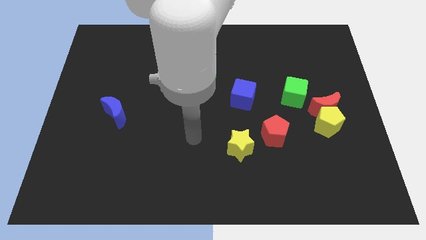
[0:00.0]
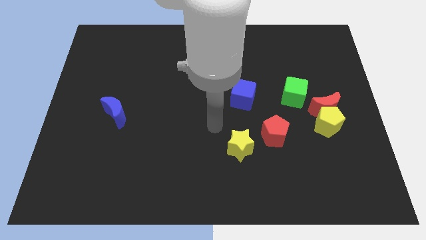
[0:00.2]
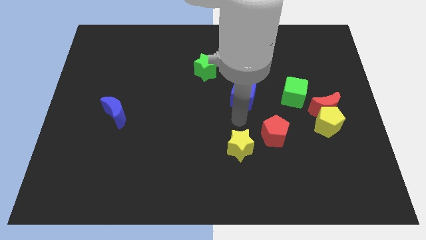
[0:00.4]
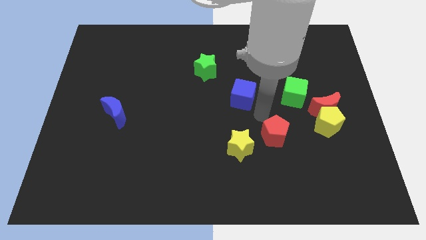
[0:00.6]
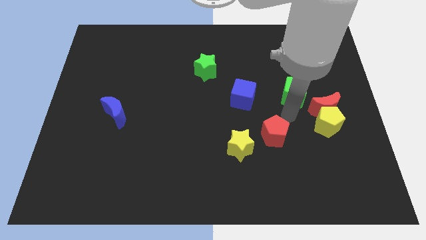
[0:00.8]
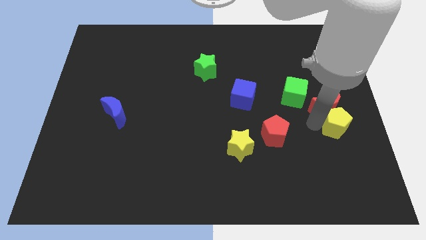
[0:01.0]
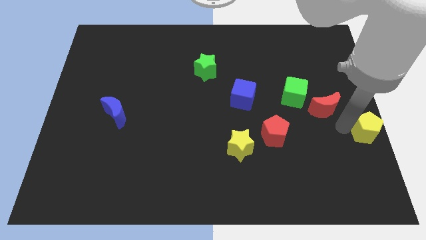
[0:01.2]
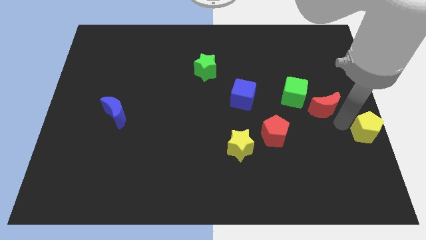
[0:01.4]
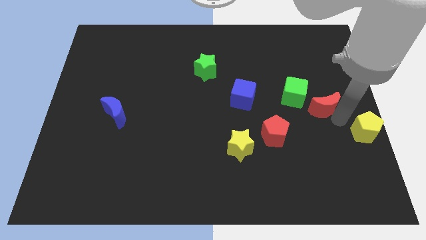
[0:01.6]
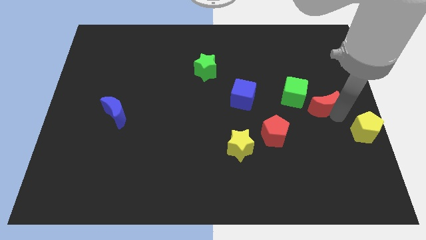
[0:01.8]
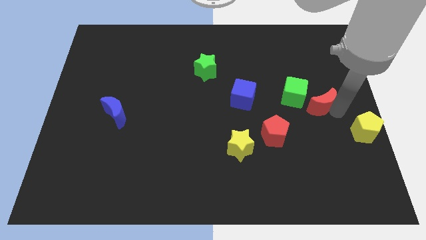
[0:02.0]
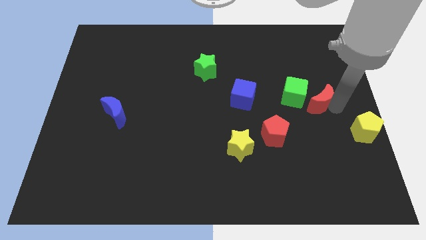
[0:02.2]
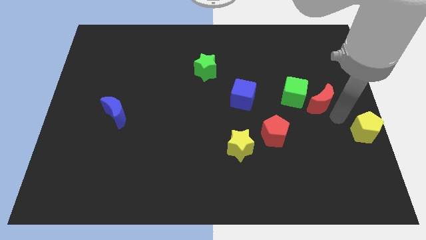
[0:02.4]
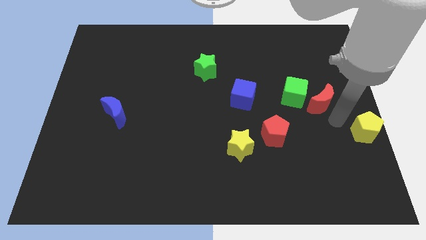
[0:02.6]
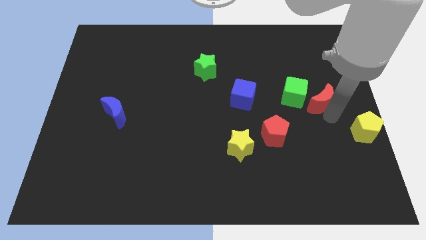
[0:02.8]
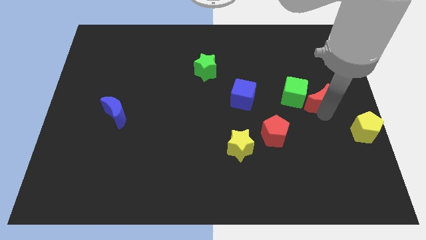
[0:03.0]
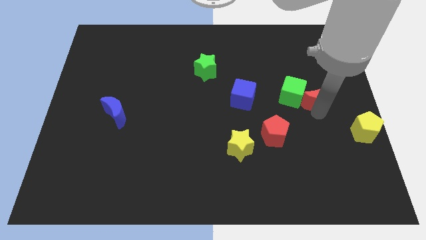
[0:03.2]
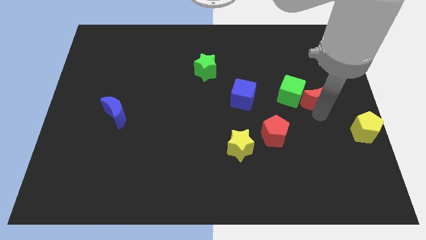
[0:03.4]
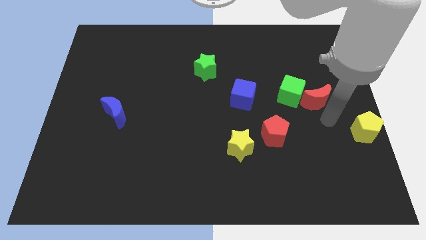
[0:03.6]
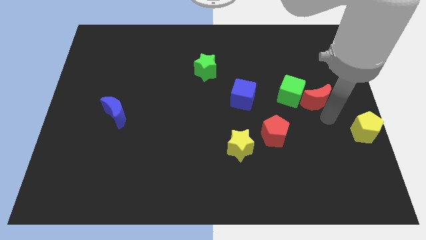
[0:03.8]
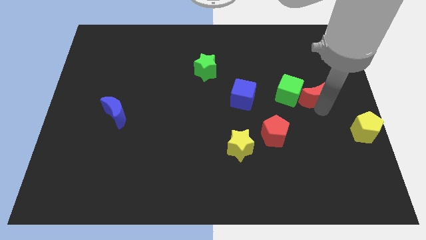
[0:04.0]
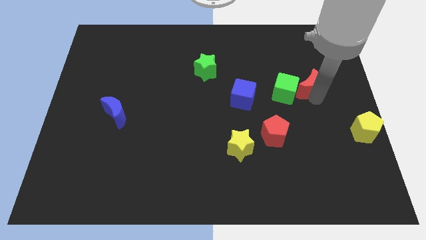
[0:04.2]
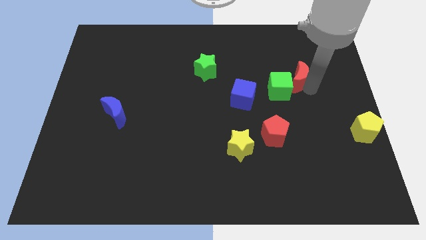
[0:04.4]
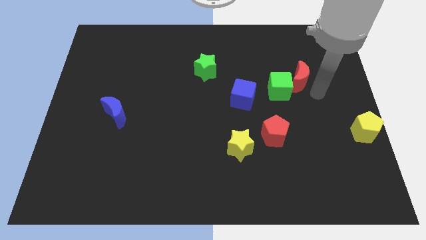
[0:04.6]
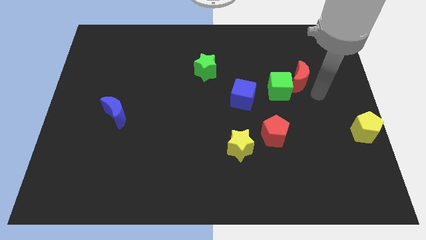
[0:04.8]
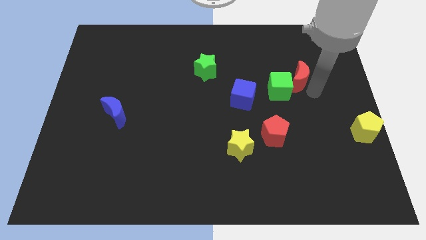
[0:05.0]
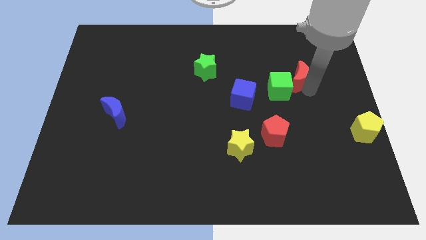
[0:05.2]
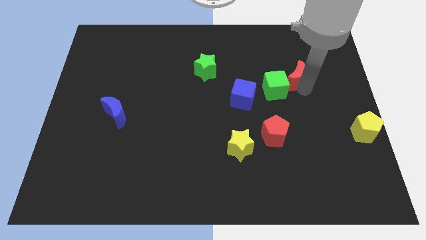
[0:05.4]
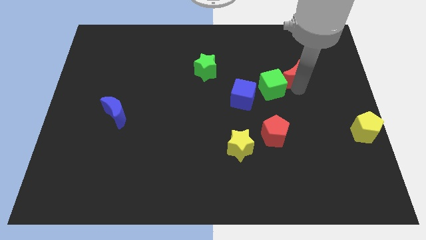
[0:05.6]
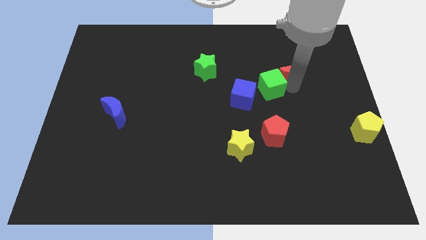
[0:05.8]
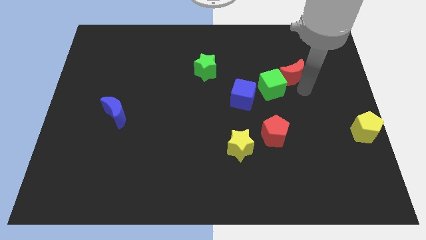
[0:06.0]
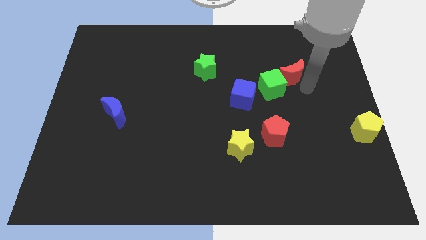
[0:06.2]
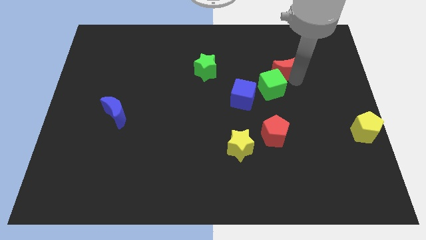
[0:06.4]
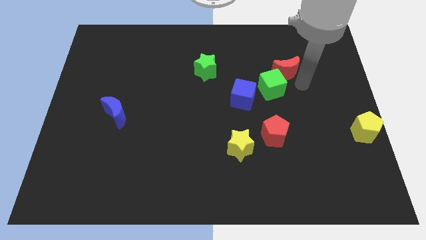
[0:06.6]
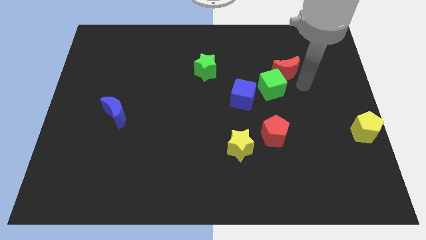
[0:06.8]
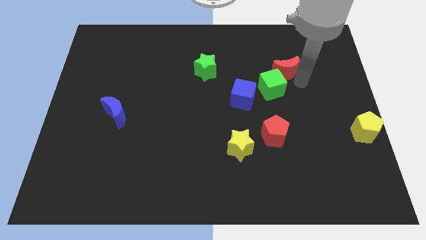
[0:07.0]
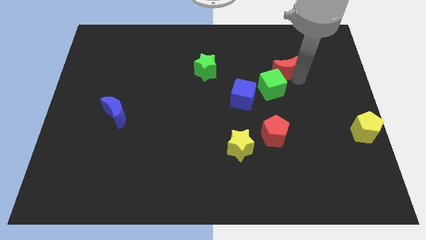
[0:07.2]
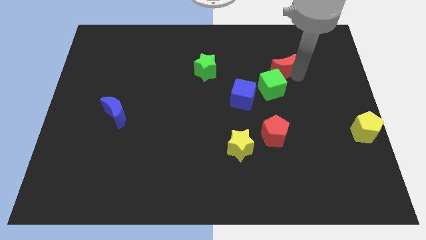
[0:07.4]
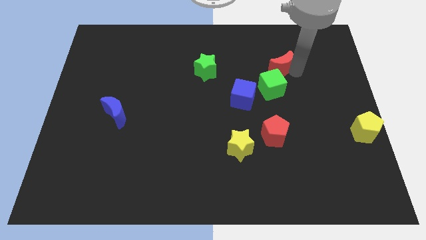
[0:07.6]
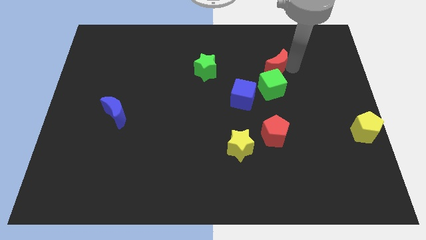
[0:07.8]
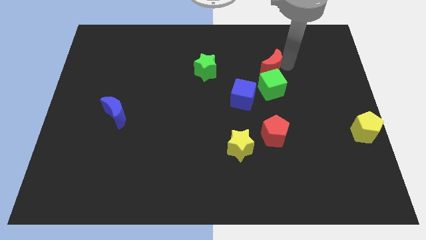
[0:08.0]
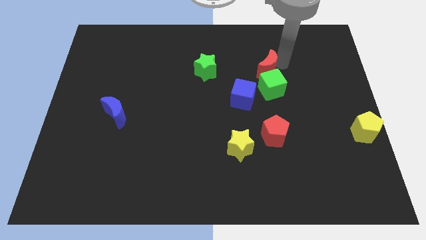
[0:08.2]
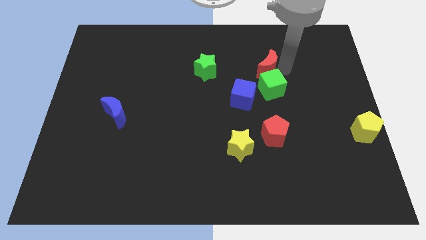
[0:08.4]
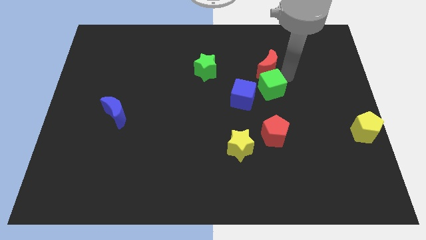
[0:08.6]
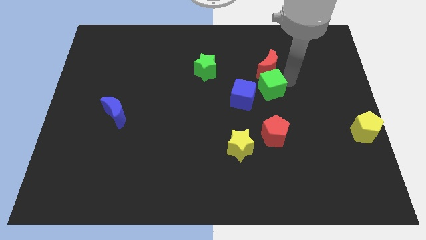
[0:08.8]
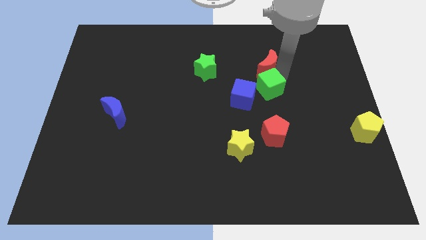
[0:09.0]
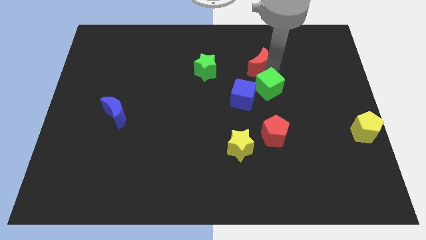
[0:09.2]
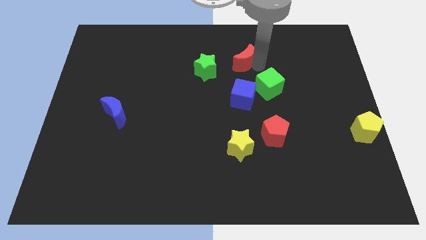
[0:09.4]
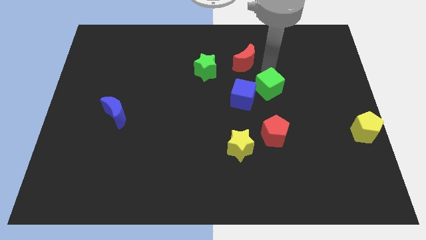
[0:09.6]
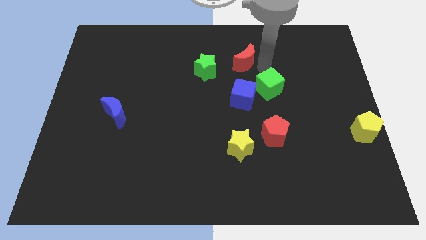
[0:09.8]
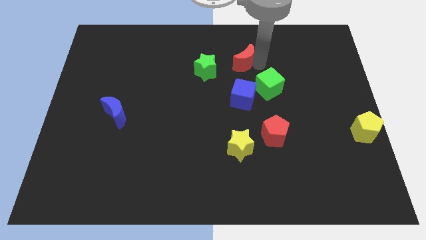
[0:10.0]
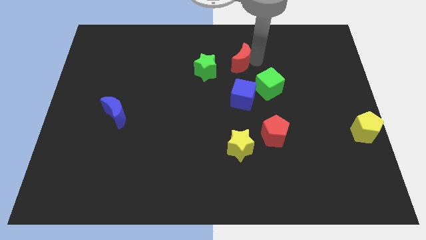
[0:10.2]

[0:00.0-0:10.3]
slide the red moon diagonally up and to the right of the green star

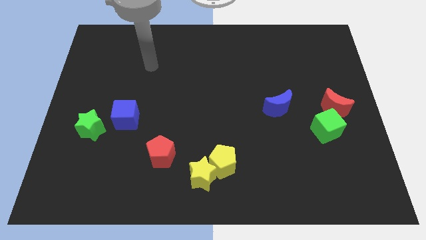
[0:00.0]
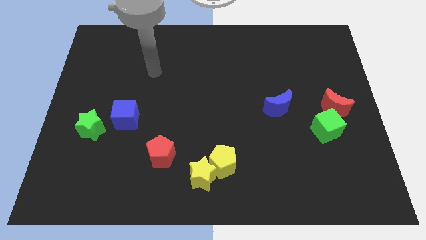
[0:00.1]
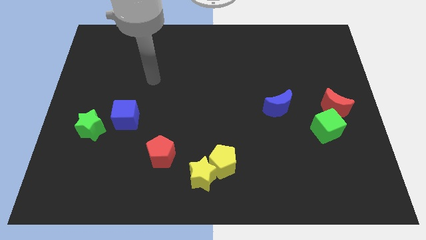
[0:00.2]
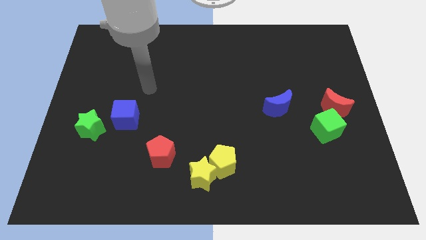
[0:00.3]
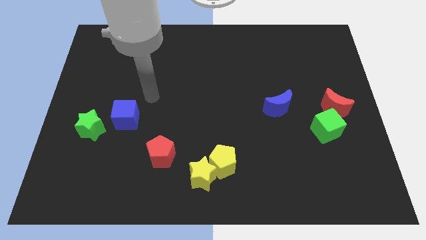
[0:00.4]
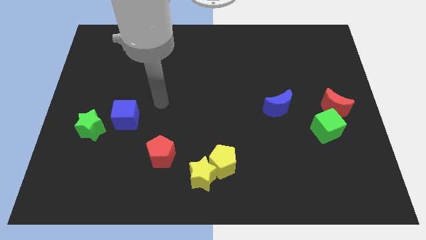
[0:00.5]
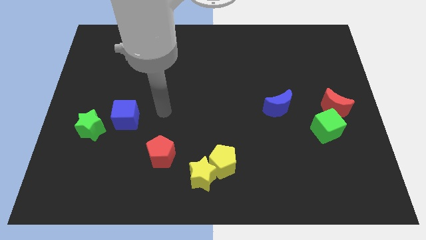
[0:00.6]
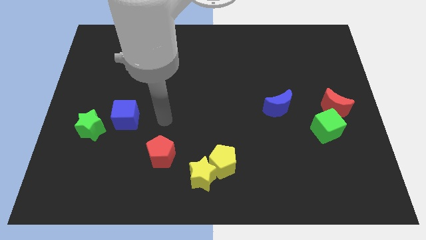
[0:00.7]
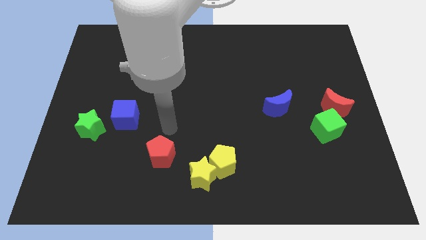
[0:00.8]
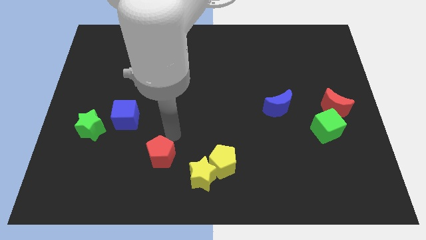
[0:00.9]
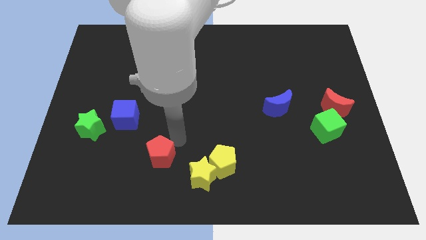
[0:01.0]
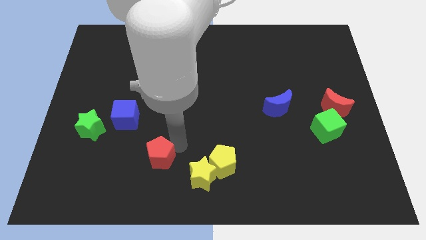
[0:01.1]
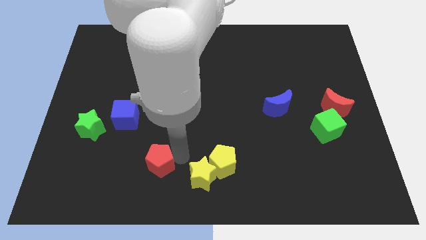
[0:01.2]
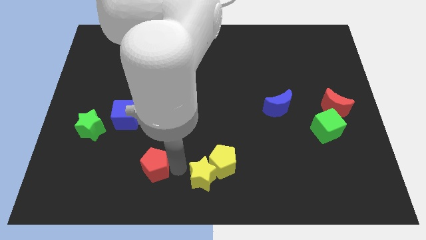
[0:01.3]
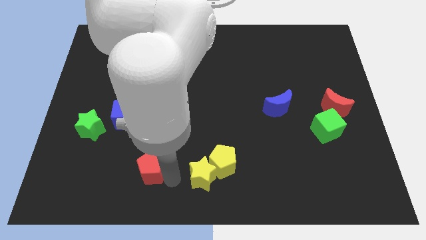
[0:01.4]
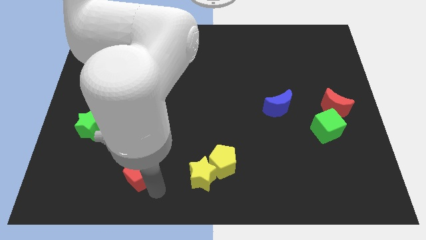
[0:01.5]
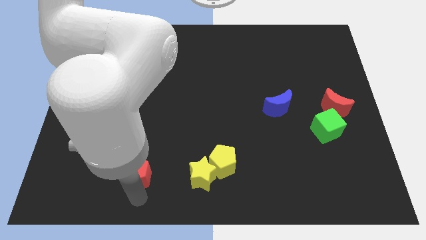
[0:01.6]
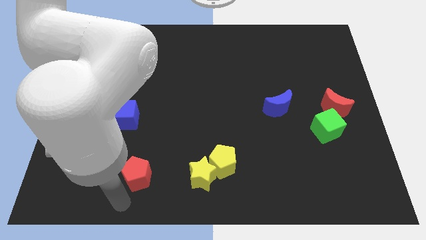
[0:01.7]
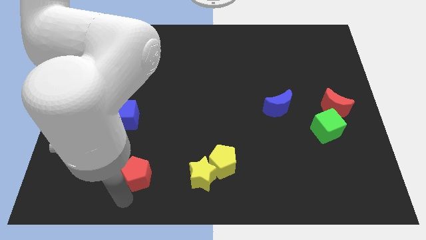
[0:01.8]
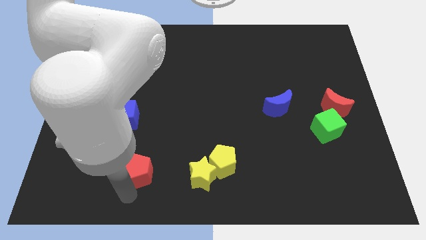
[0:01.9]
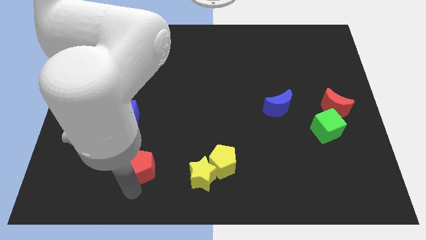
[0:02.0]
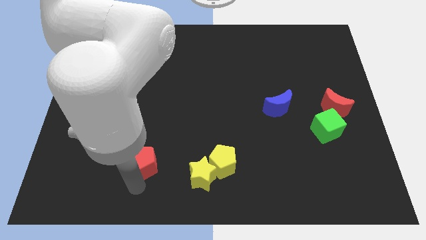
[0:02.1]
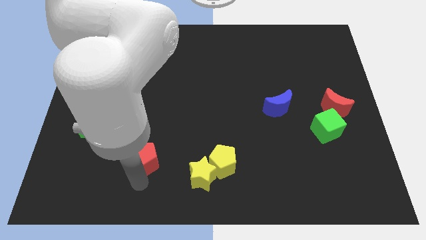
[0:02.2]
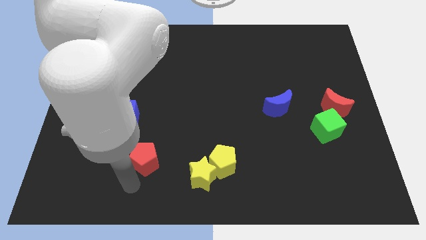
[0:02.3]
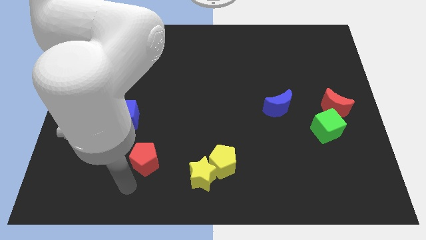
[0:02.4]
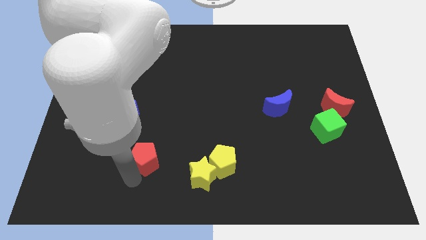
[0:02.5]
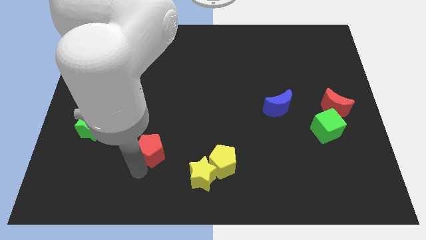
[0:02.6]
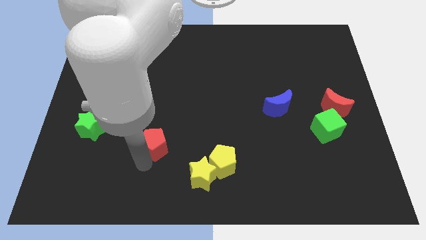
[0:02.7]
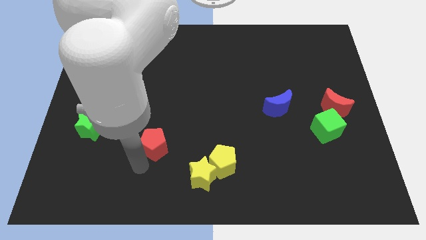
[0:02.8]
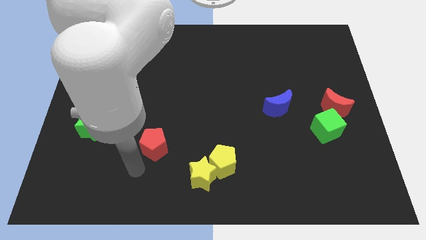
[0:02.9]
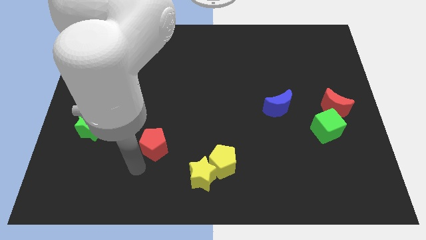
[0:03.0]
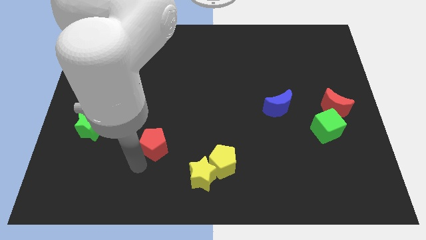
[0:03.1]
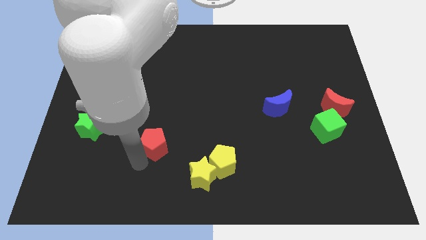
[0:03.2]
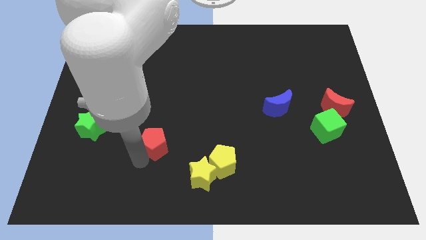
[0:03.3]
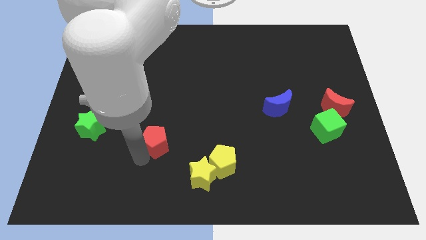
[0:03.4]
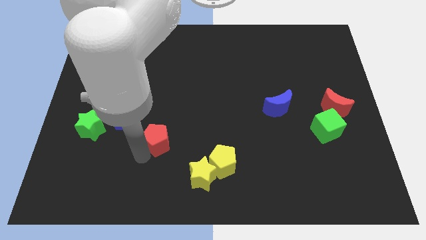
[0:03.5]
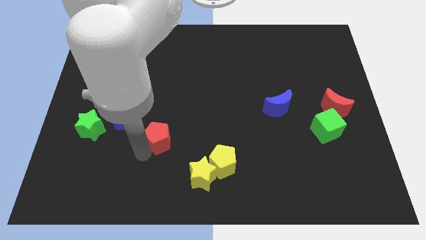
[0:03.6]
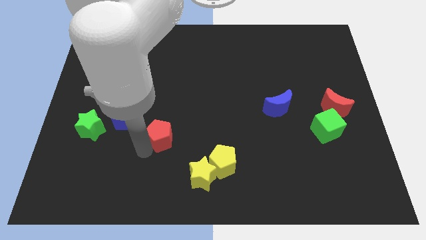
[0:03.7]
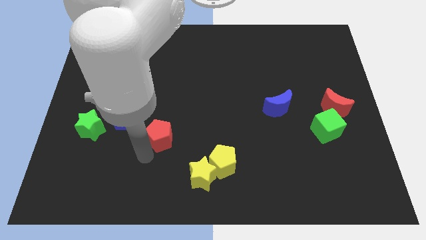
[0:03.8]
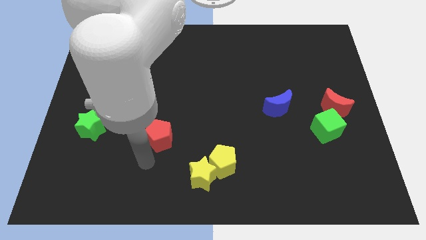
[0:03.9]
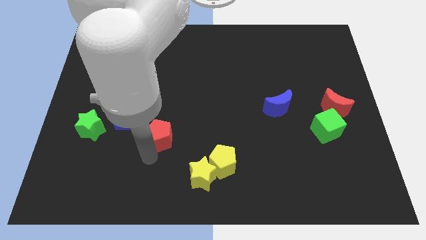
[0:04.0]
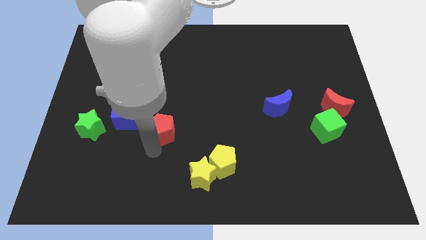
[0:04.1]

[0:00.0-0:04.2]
move the red pentagon to the right of the blue cube
